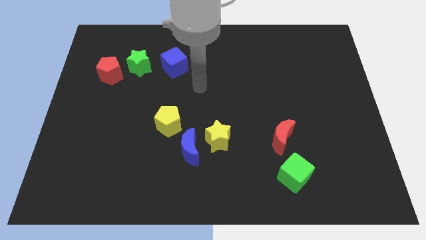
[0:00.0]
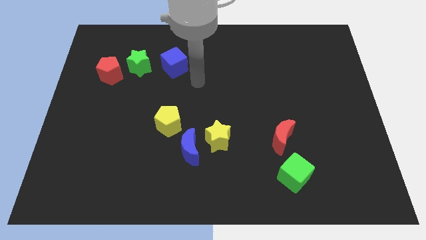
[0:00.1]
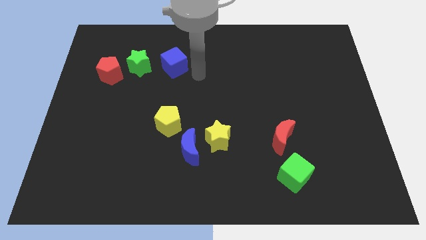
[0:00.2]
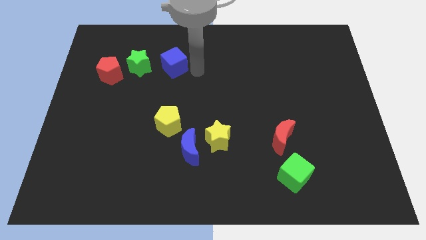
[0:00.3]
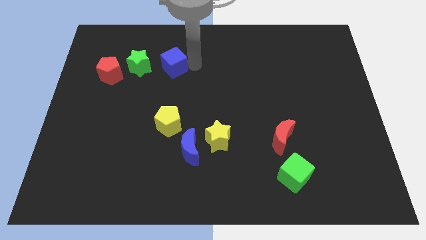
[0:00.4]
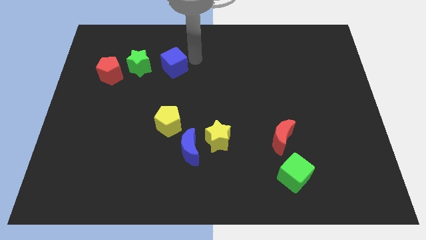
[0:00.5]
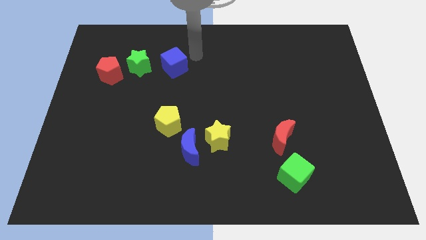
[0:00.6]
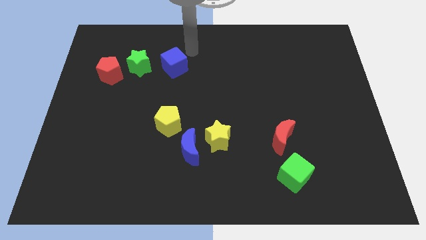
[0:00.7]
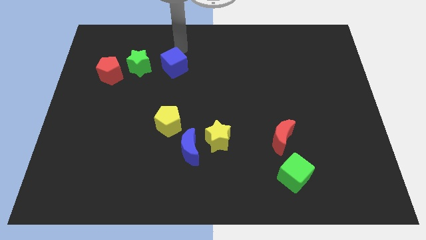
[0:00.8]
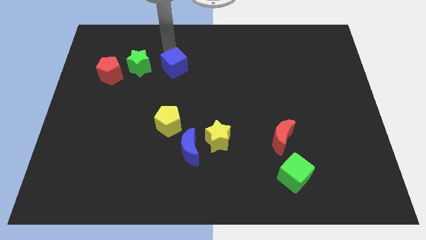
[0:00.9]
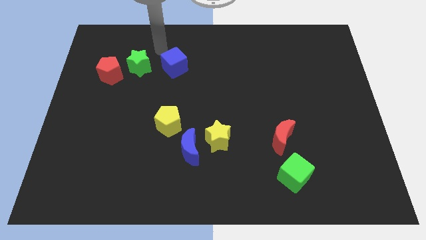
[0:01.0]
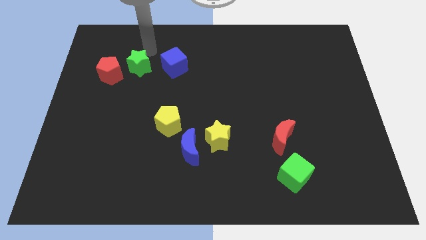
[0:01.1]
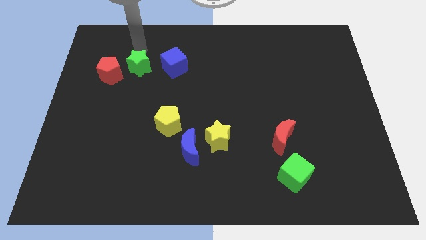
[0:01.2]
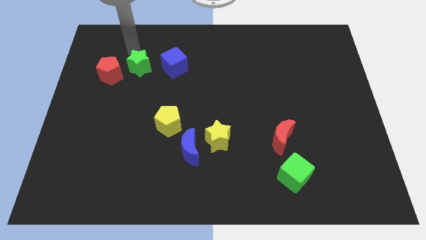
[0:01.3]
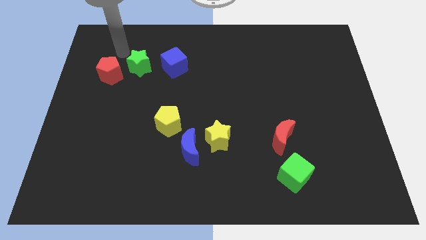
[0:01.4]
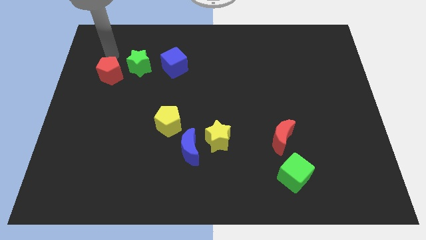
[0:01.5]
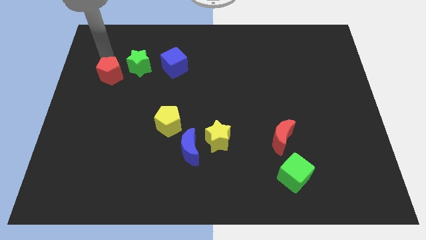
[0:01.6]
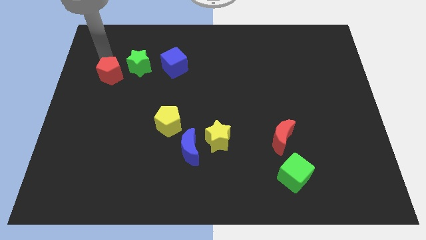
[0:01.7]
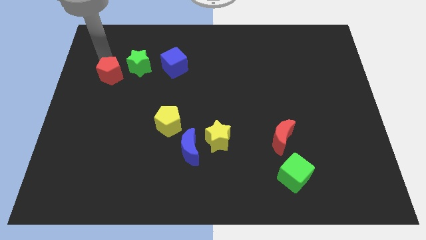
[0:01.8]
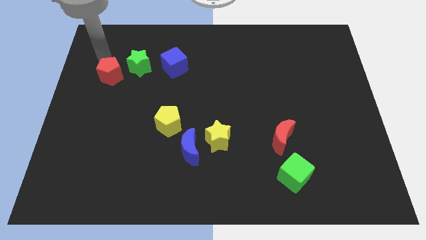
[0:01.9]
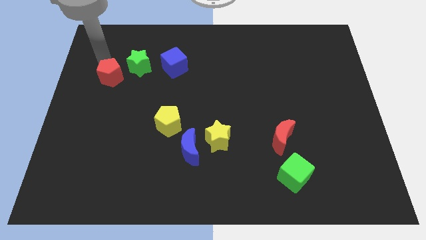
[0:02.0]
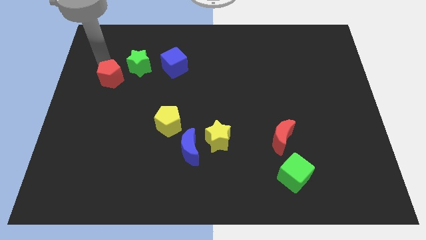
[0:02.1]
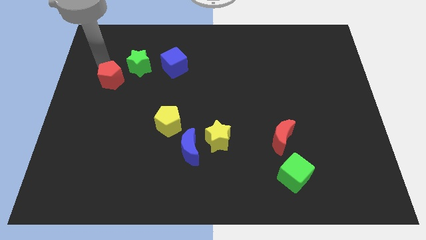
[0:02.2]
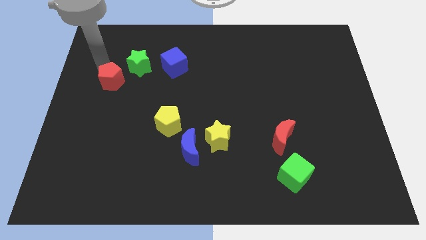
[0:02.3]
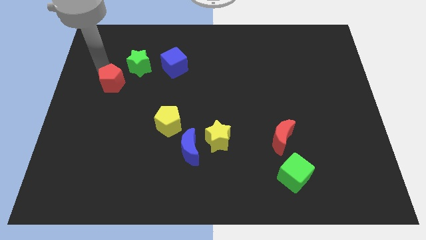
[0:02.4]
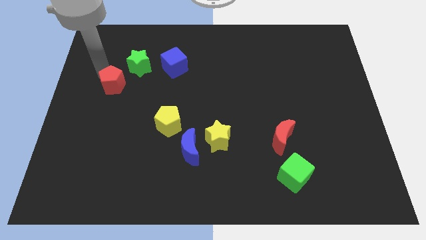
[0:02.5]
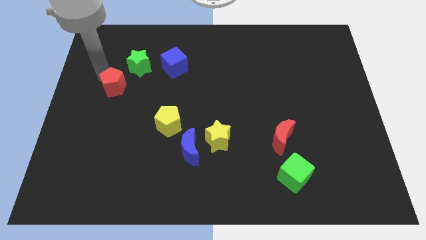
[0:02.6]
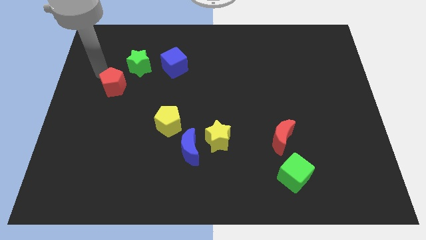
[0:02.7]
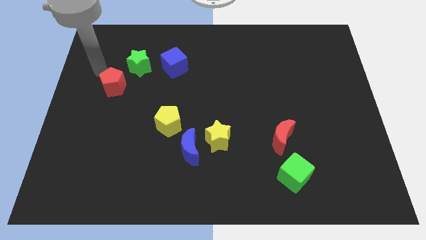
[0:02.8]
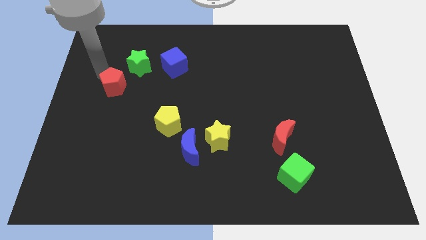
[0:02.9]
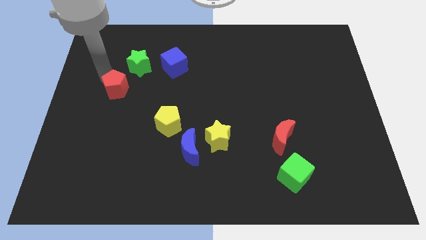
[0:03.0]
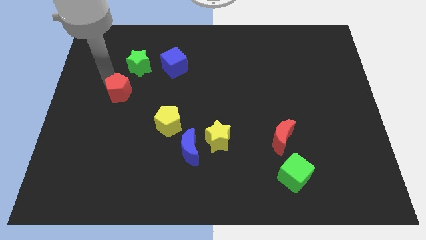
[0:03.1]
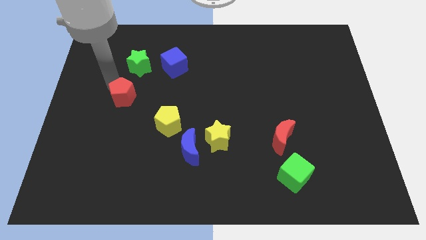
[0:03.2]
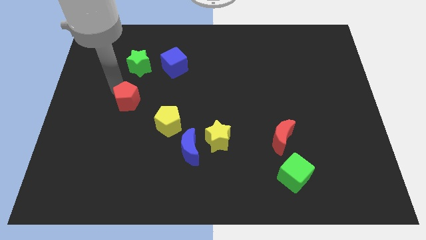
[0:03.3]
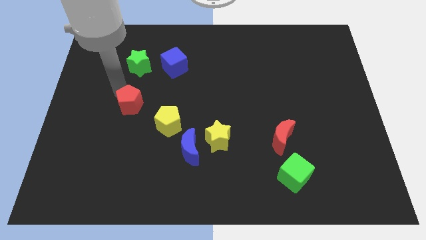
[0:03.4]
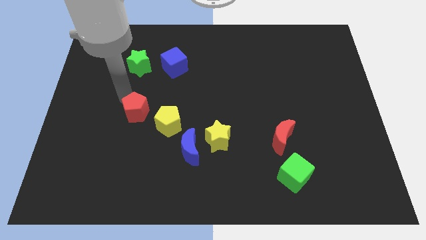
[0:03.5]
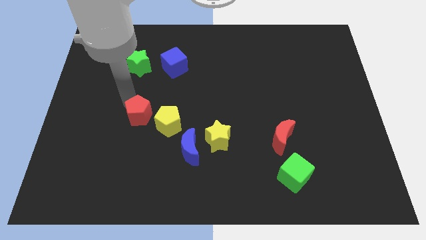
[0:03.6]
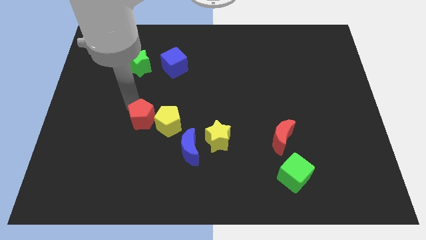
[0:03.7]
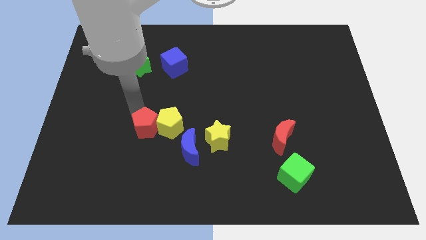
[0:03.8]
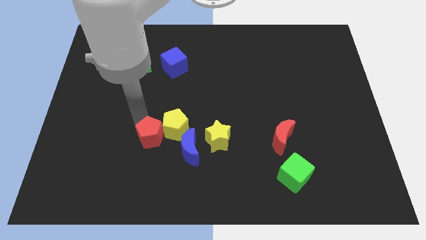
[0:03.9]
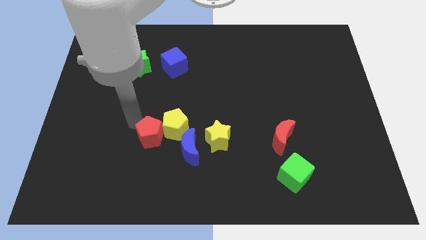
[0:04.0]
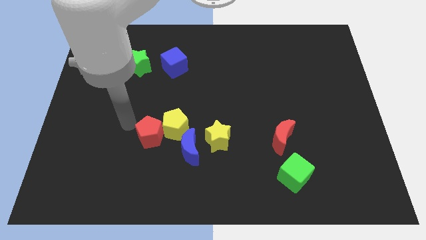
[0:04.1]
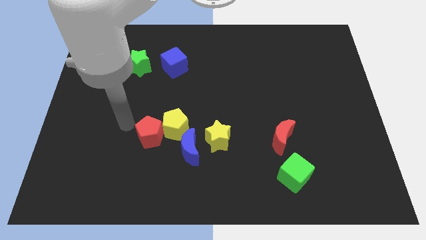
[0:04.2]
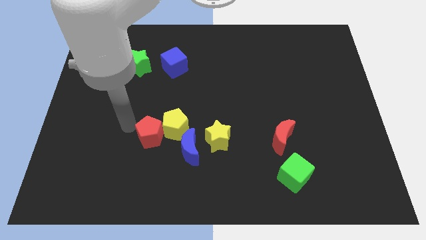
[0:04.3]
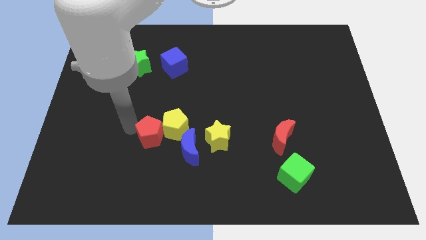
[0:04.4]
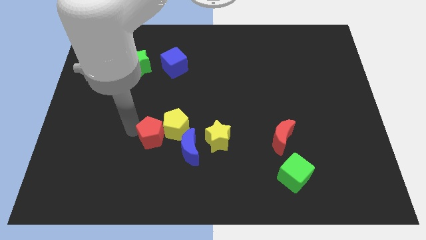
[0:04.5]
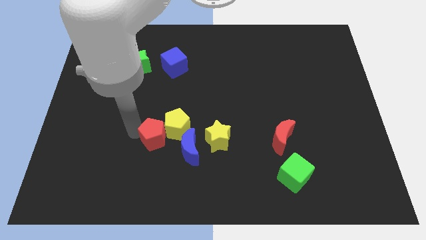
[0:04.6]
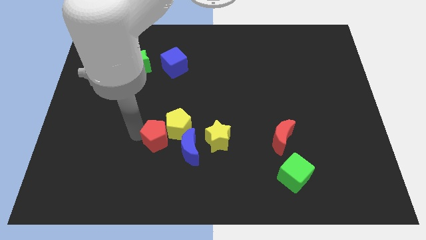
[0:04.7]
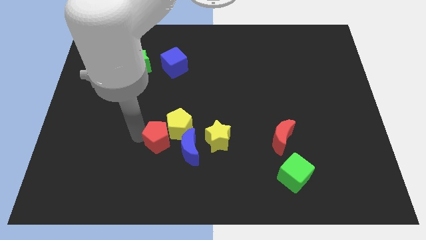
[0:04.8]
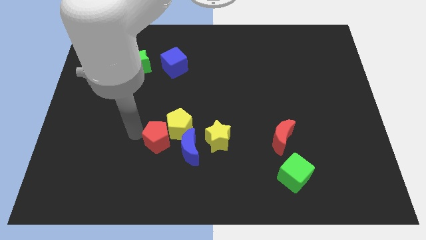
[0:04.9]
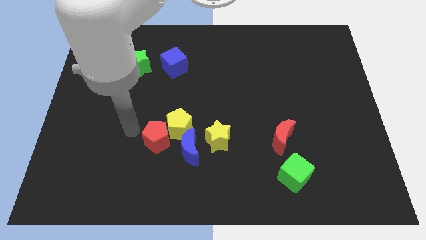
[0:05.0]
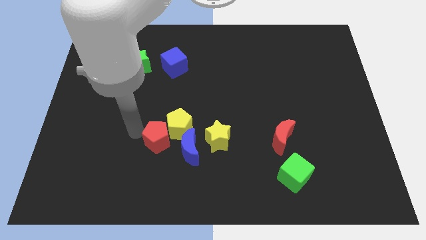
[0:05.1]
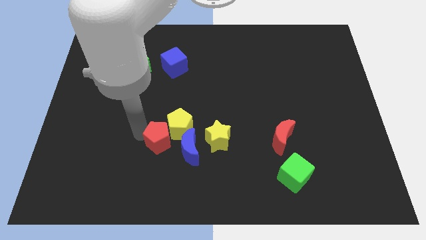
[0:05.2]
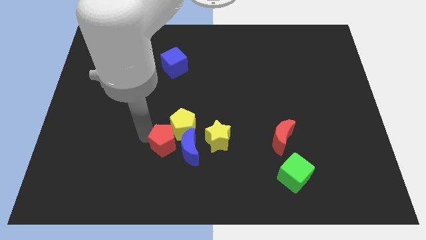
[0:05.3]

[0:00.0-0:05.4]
push the red pentagon close to the blue moon

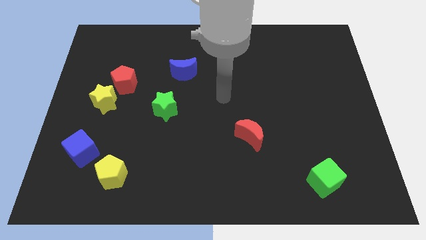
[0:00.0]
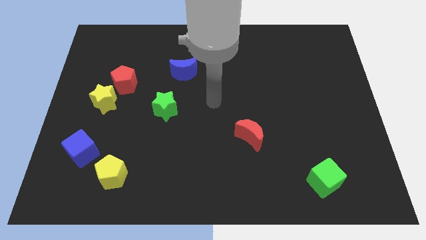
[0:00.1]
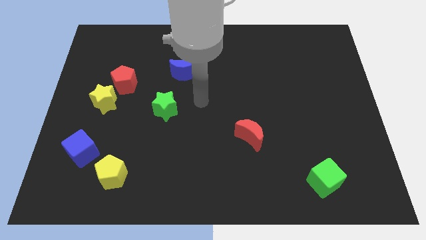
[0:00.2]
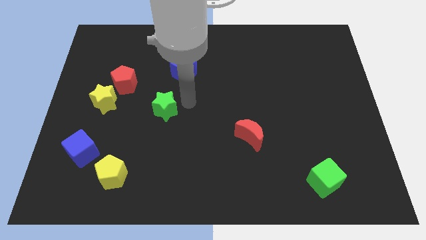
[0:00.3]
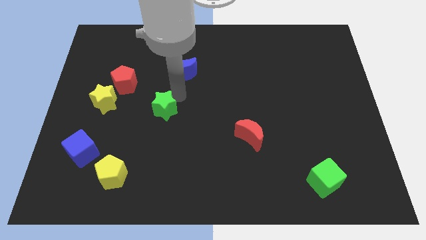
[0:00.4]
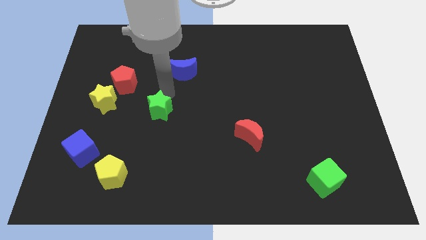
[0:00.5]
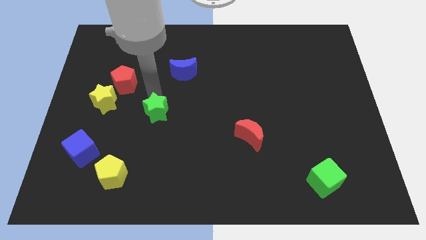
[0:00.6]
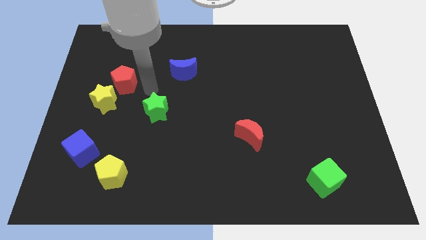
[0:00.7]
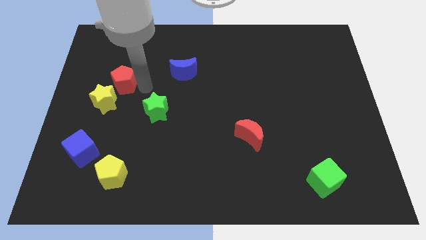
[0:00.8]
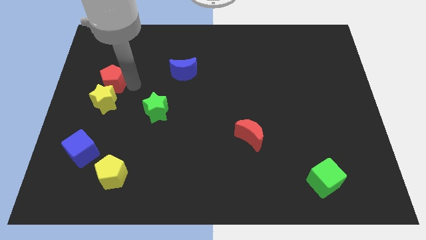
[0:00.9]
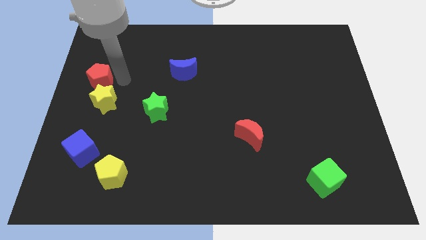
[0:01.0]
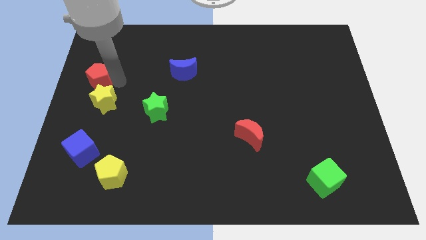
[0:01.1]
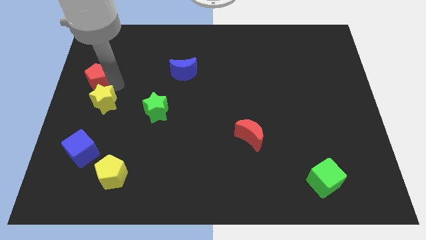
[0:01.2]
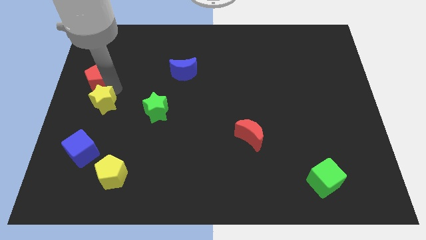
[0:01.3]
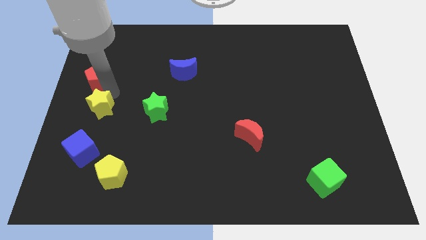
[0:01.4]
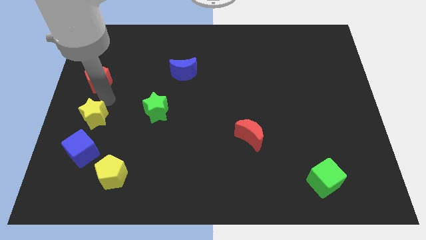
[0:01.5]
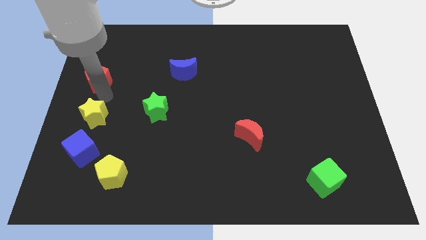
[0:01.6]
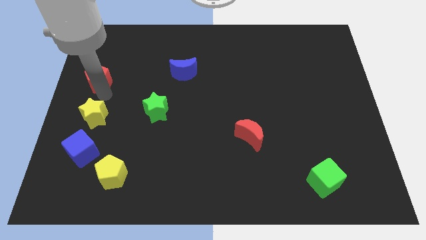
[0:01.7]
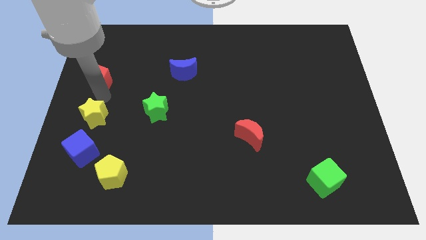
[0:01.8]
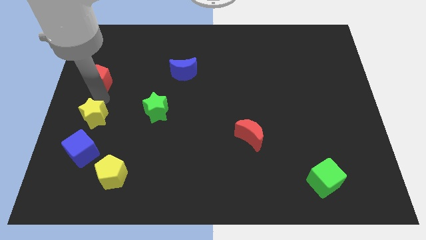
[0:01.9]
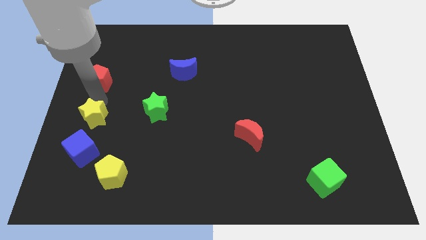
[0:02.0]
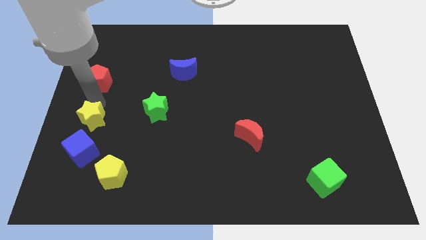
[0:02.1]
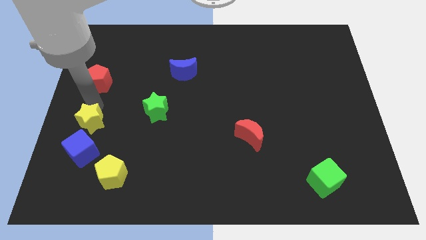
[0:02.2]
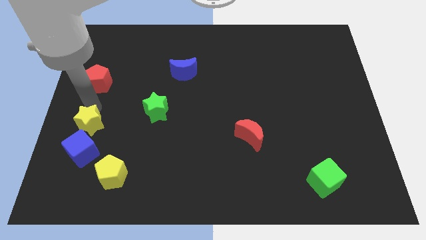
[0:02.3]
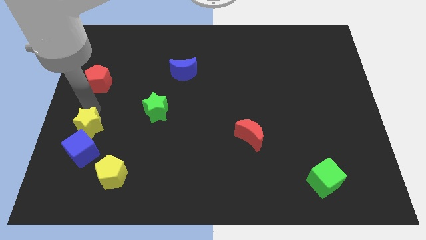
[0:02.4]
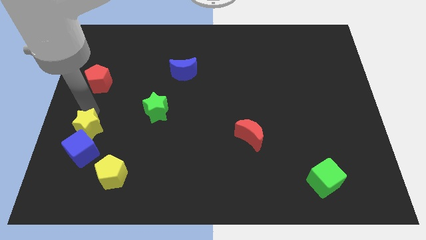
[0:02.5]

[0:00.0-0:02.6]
push the yellow star towards the blue cube
